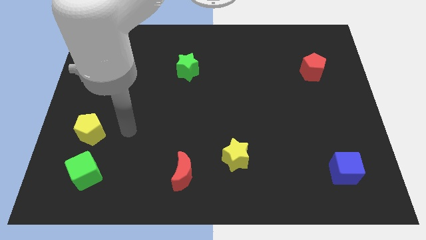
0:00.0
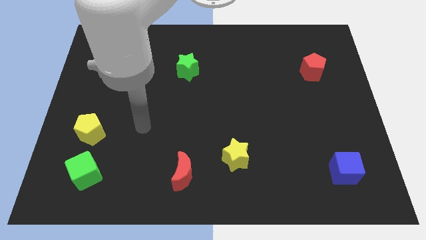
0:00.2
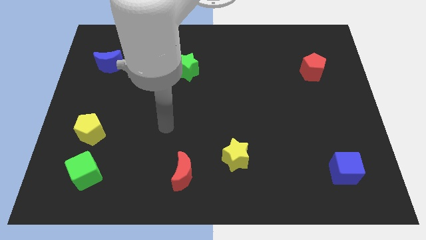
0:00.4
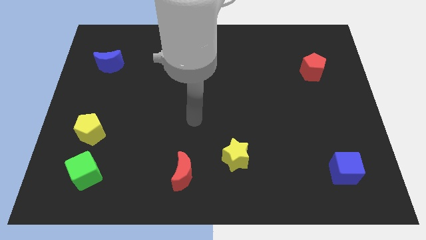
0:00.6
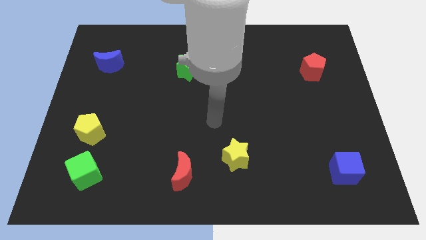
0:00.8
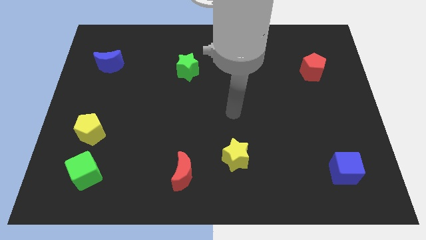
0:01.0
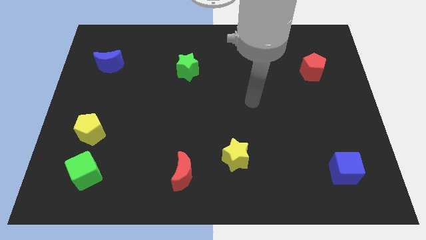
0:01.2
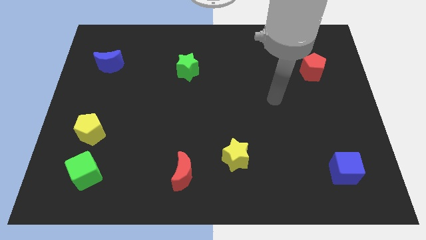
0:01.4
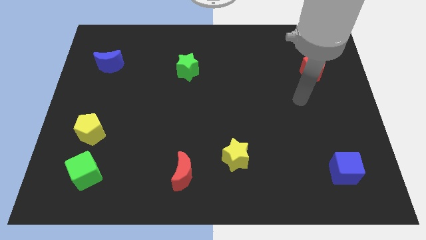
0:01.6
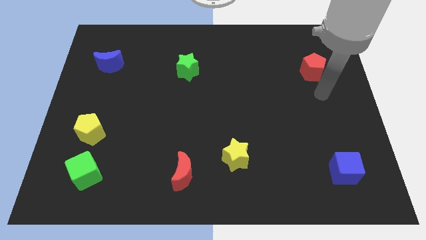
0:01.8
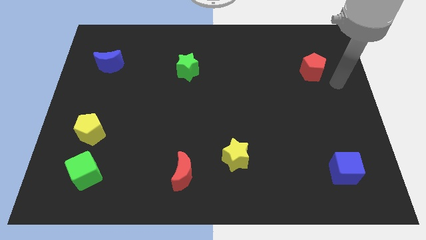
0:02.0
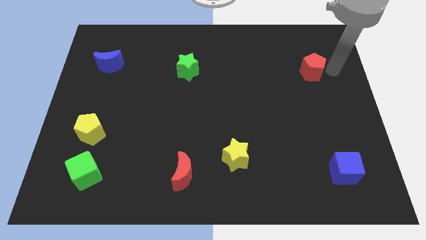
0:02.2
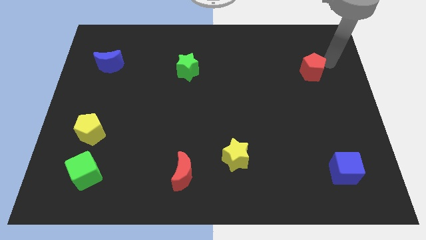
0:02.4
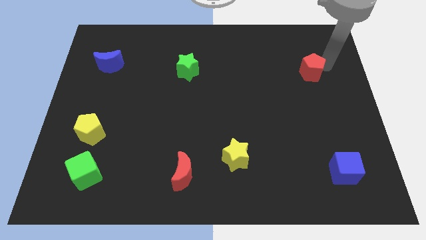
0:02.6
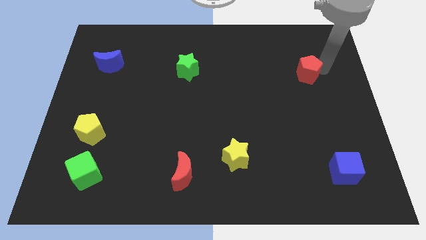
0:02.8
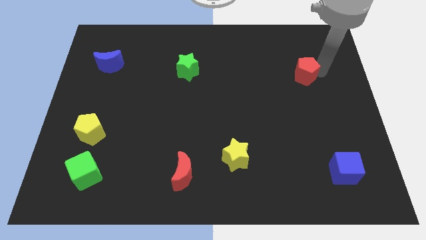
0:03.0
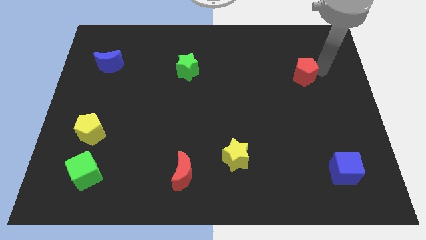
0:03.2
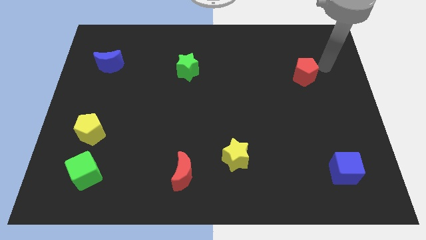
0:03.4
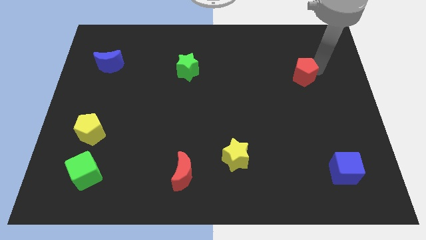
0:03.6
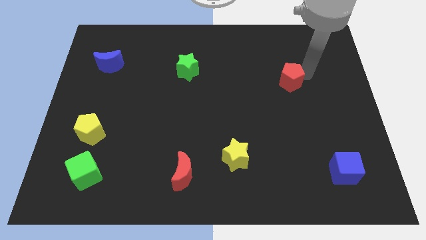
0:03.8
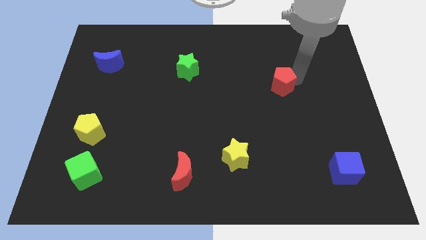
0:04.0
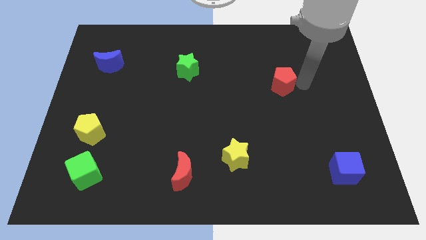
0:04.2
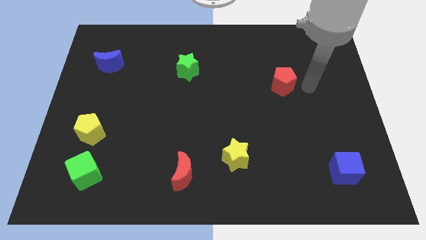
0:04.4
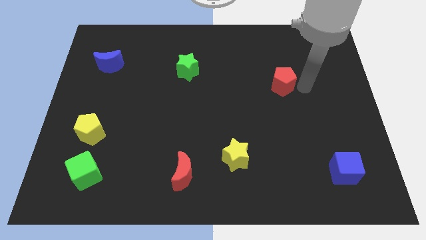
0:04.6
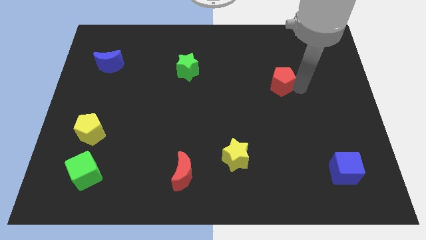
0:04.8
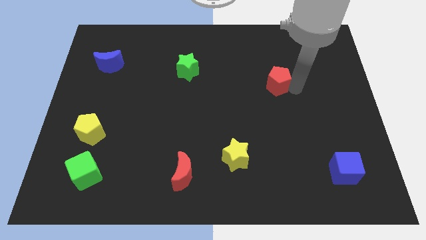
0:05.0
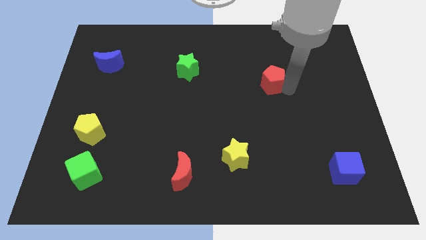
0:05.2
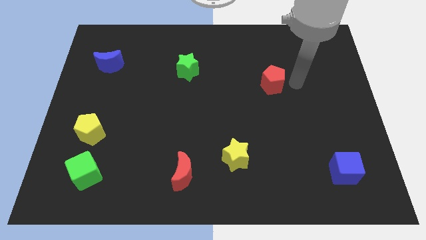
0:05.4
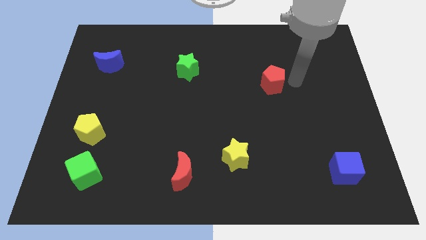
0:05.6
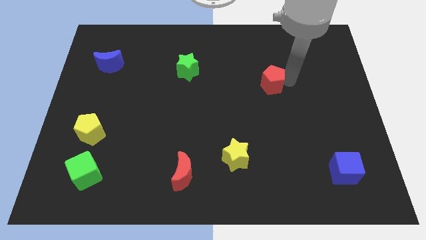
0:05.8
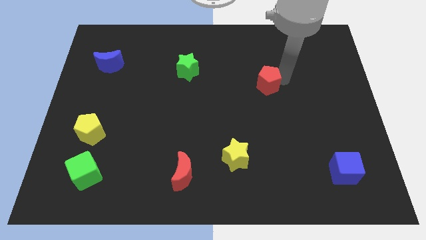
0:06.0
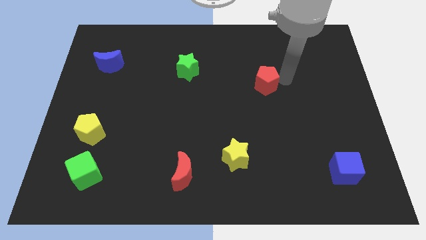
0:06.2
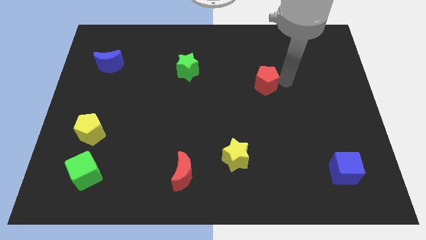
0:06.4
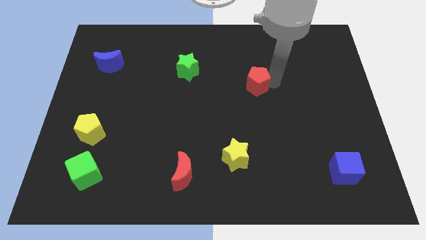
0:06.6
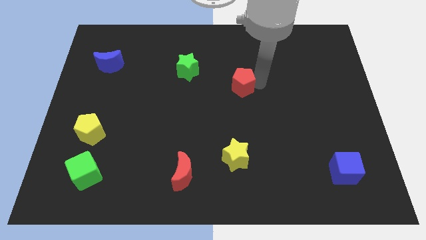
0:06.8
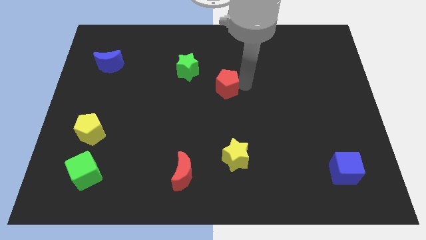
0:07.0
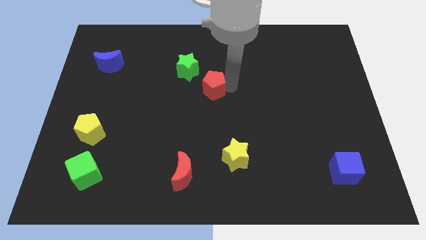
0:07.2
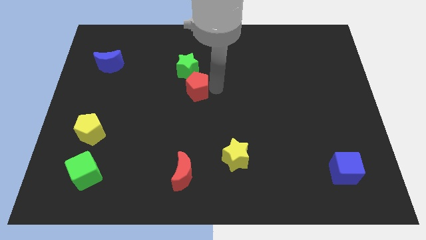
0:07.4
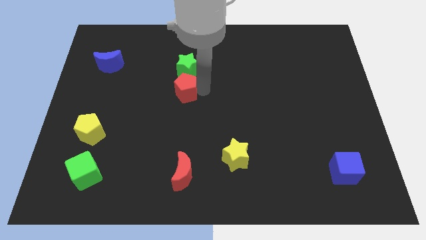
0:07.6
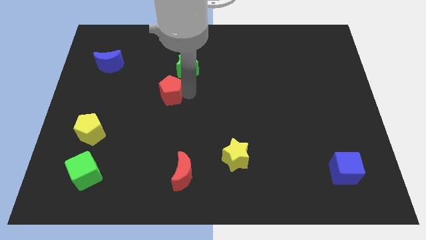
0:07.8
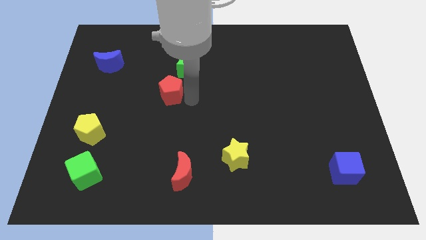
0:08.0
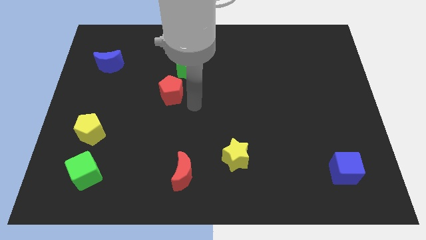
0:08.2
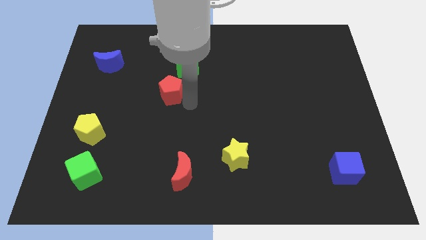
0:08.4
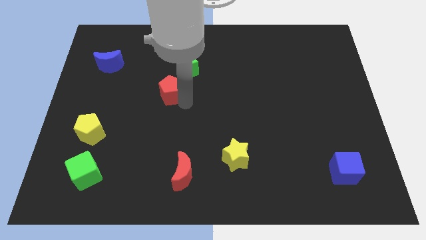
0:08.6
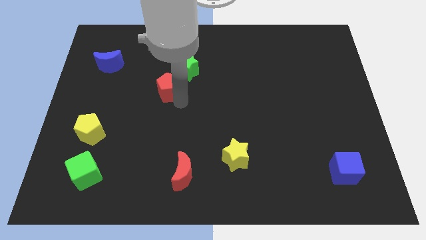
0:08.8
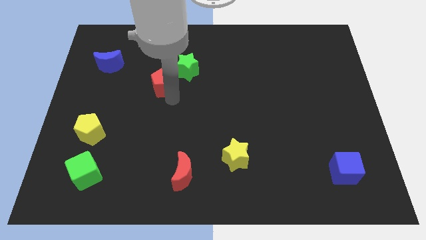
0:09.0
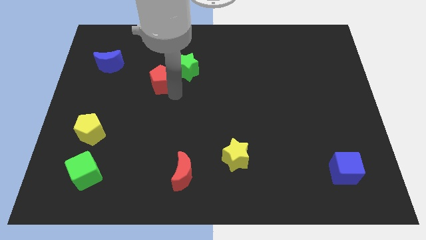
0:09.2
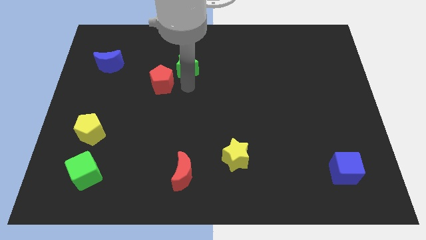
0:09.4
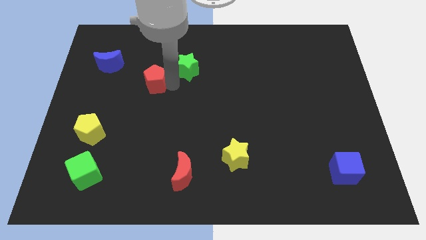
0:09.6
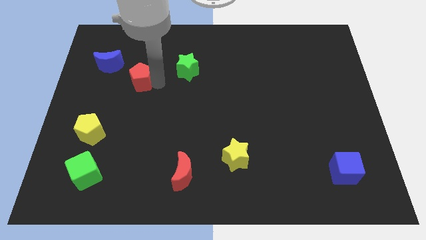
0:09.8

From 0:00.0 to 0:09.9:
put the red pentagon to the bottom right of the blue moon

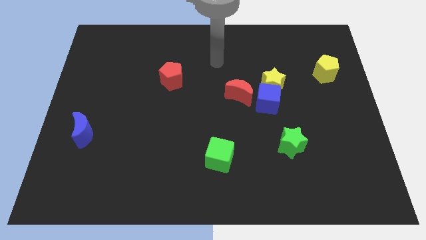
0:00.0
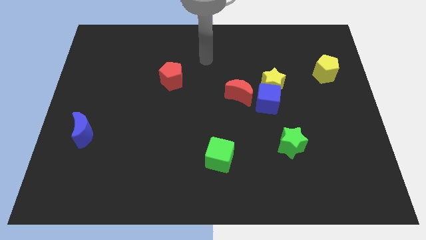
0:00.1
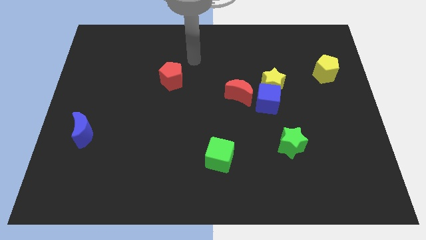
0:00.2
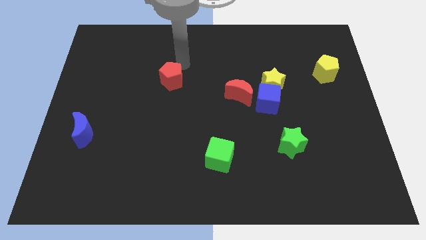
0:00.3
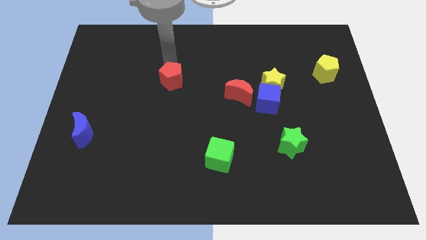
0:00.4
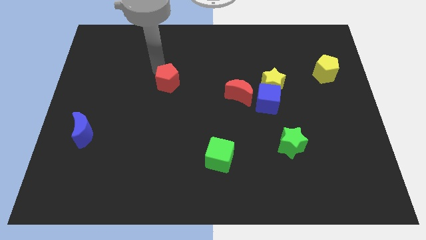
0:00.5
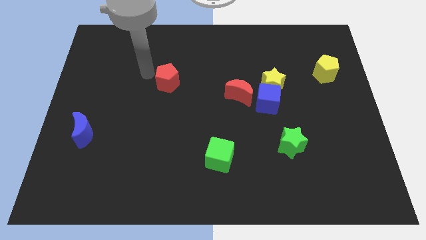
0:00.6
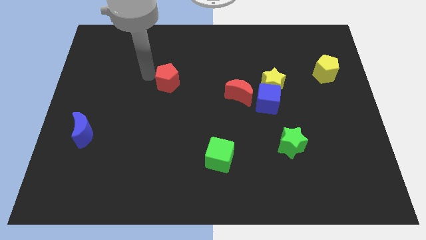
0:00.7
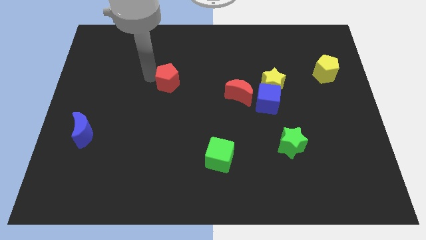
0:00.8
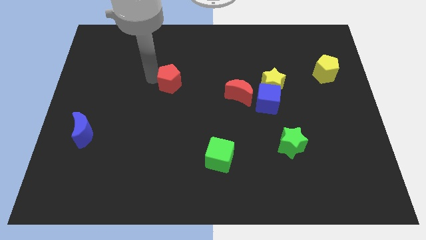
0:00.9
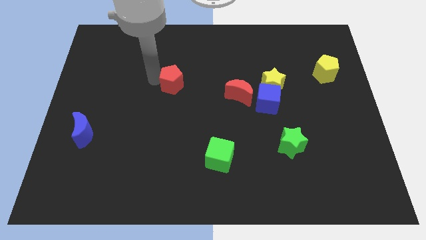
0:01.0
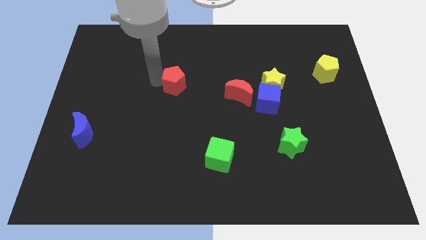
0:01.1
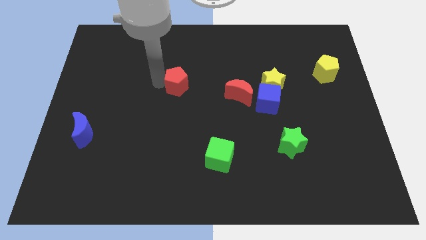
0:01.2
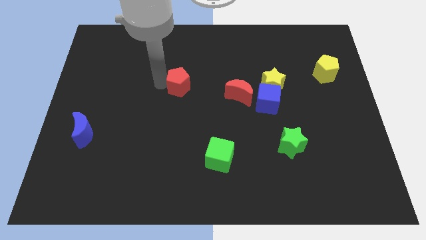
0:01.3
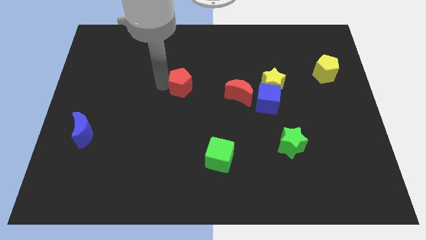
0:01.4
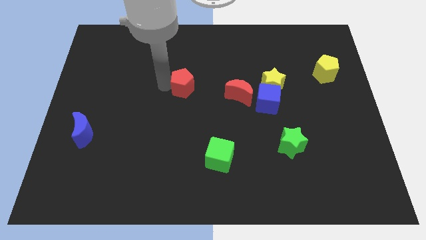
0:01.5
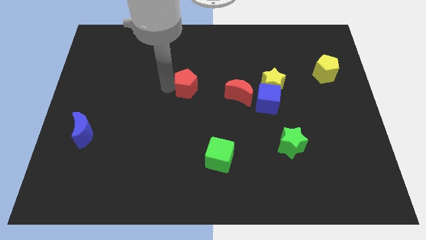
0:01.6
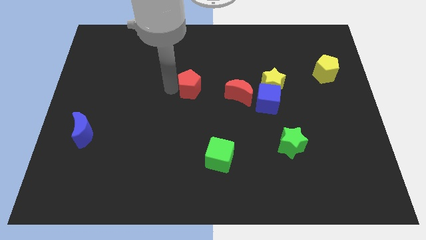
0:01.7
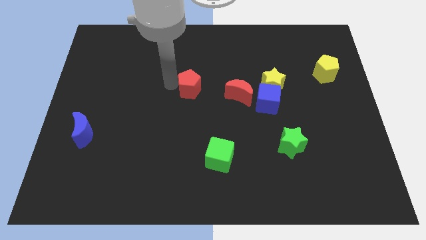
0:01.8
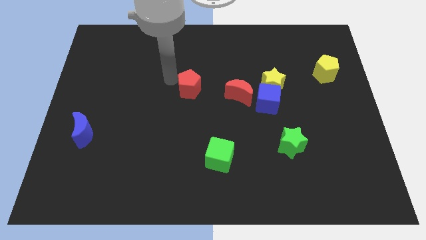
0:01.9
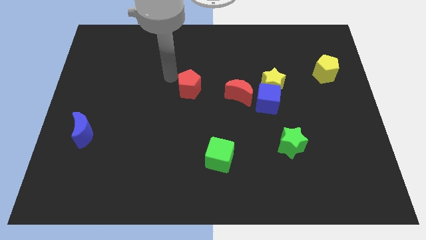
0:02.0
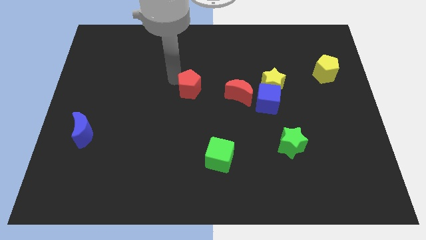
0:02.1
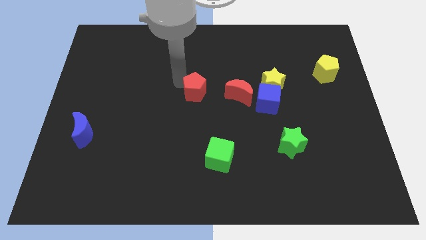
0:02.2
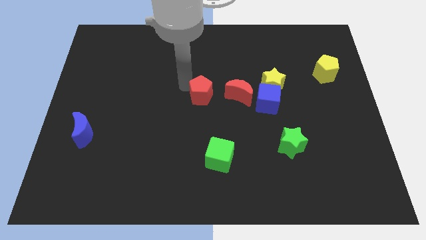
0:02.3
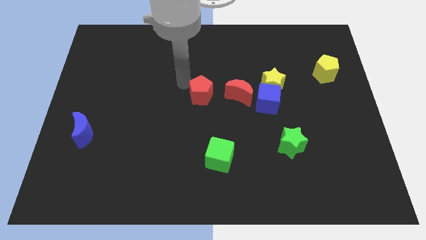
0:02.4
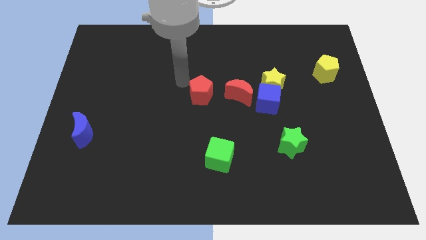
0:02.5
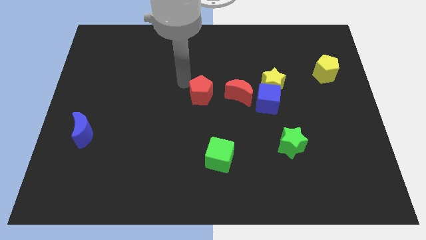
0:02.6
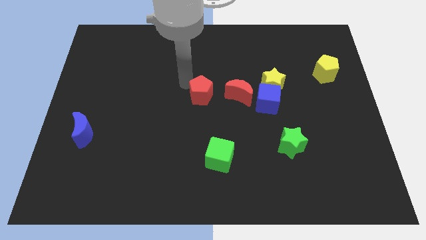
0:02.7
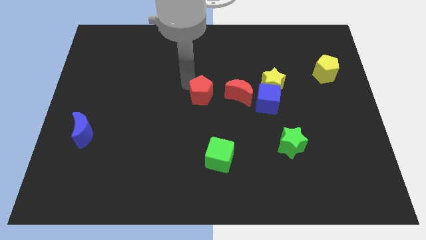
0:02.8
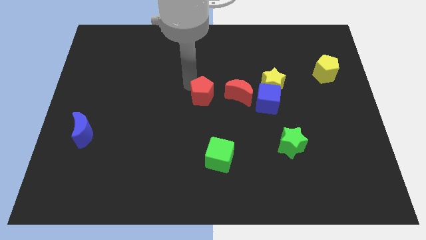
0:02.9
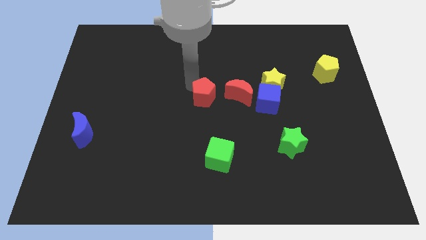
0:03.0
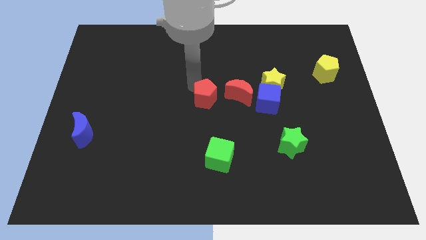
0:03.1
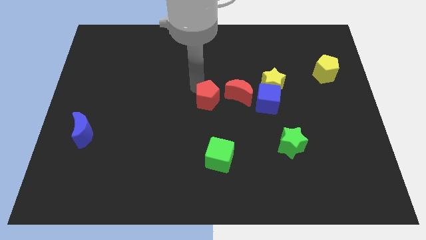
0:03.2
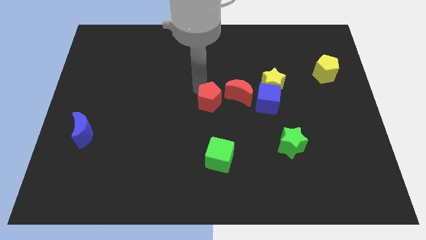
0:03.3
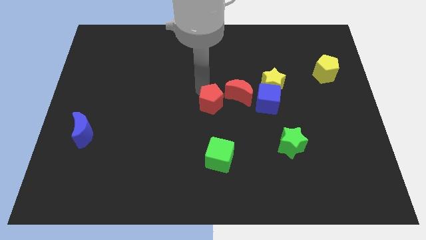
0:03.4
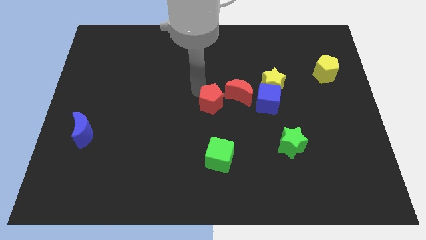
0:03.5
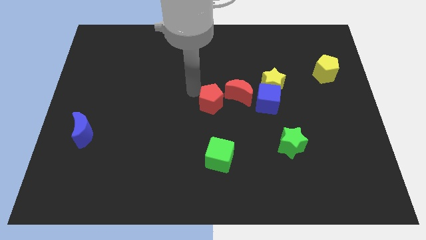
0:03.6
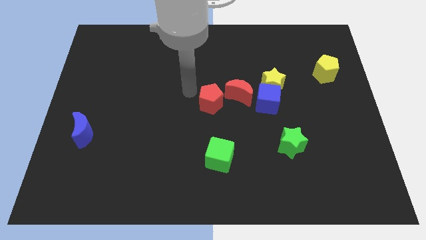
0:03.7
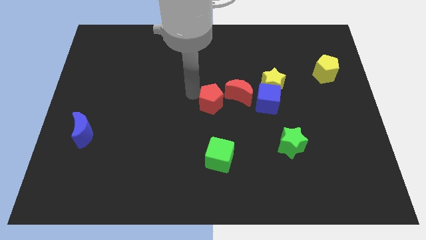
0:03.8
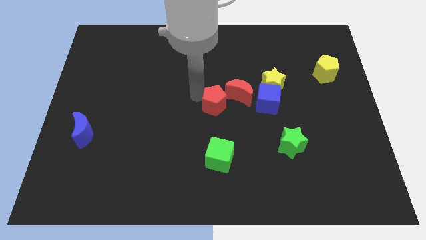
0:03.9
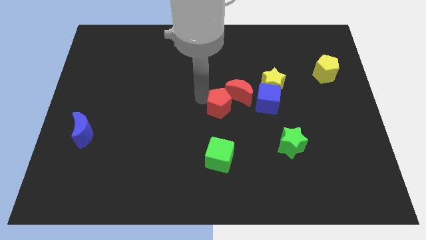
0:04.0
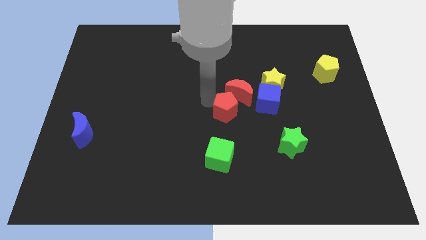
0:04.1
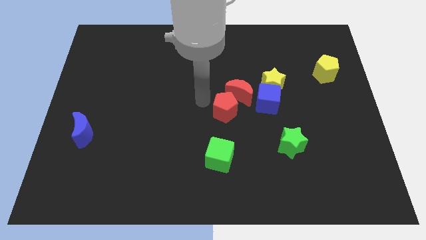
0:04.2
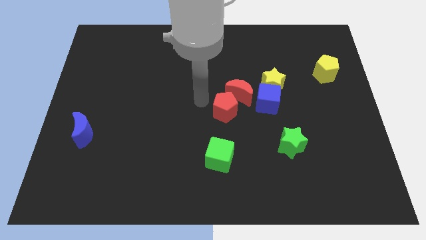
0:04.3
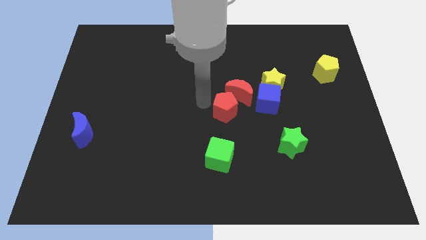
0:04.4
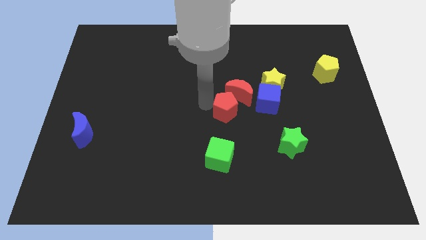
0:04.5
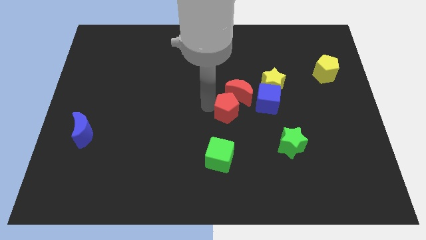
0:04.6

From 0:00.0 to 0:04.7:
move the red pentagon to the bottom left side of the blue cube
